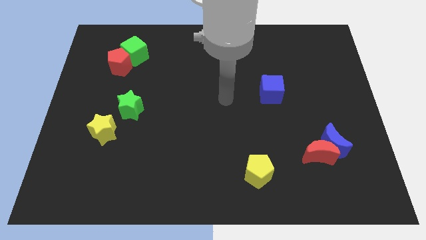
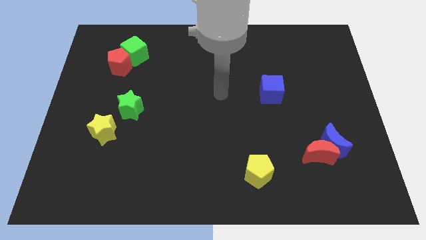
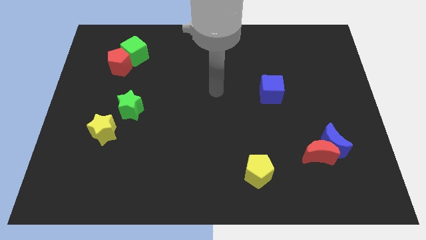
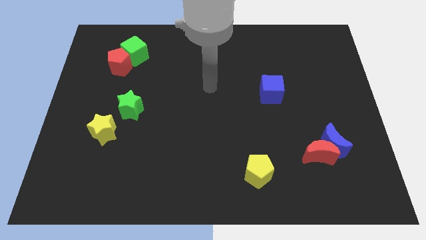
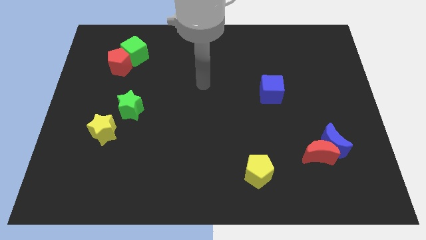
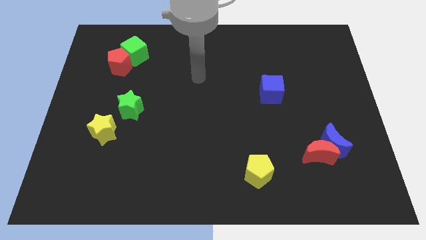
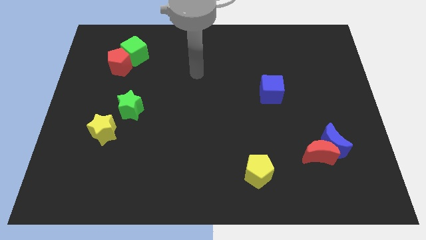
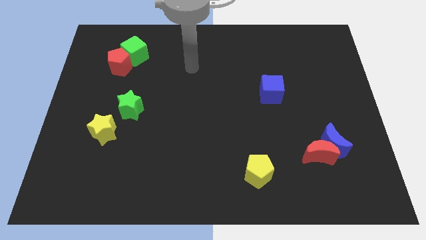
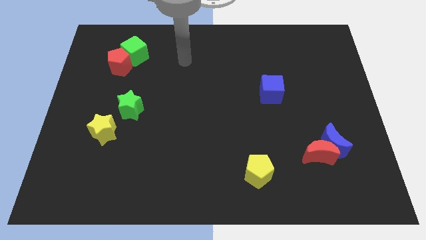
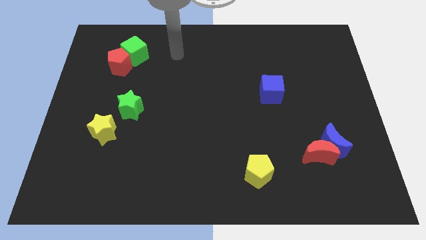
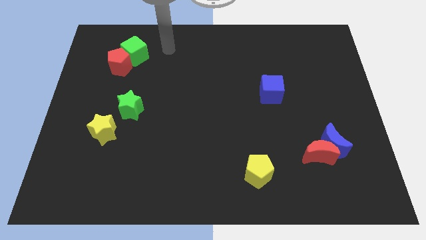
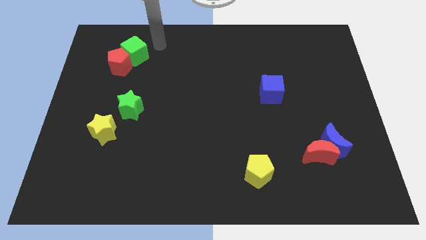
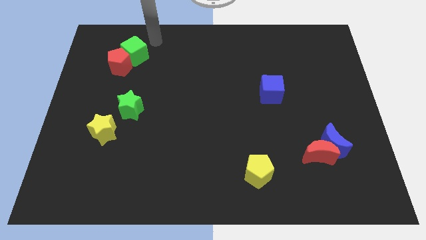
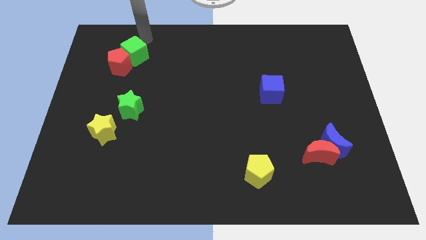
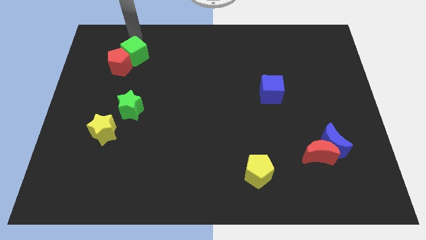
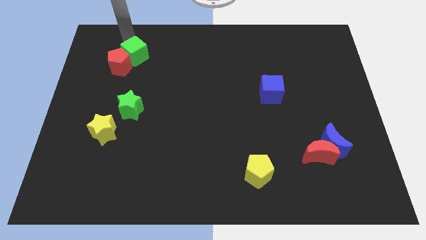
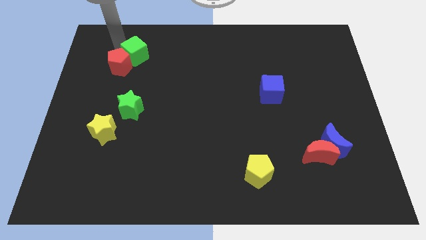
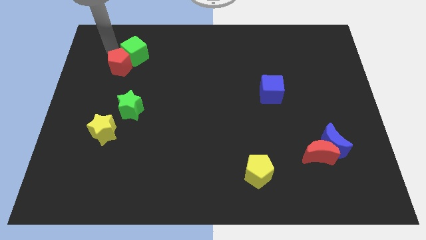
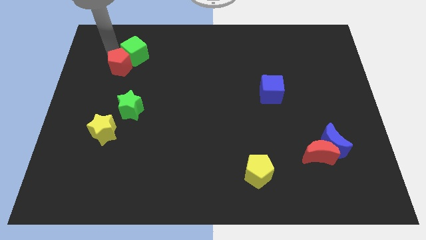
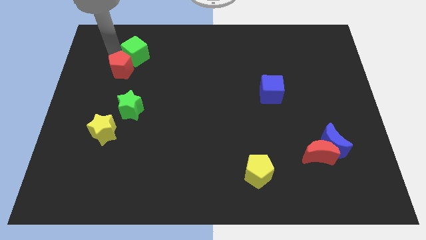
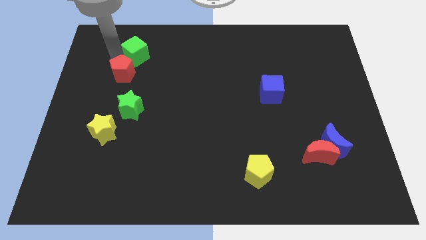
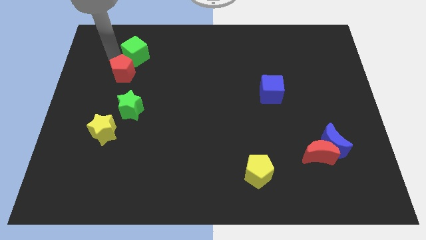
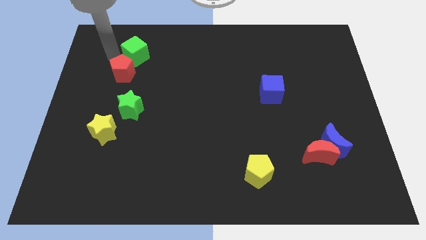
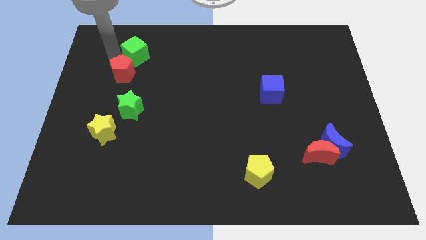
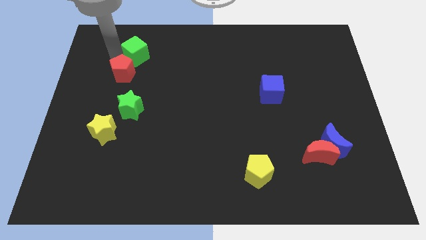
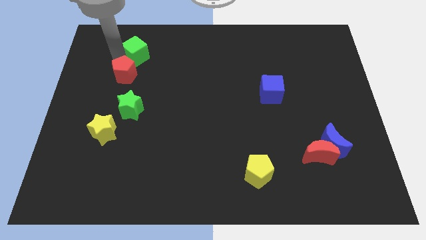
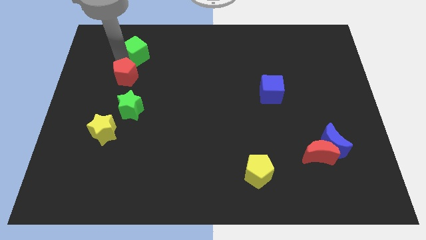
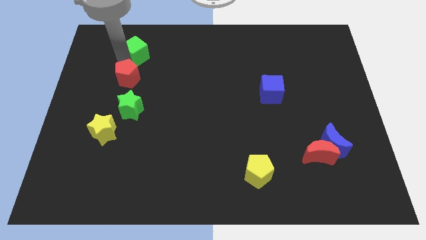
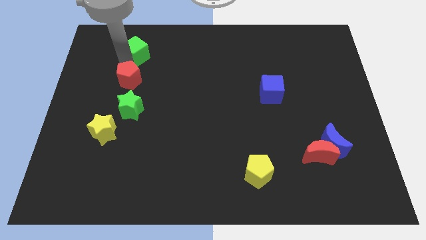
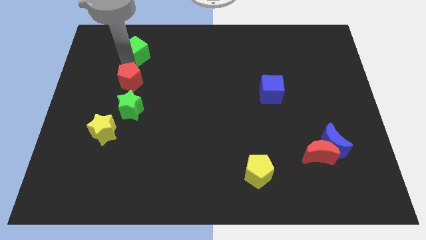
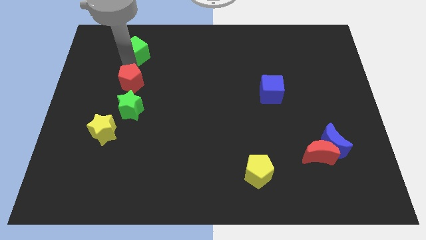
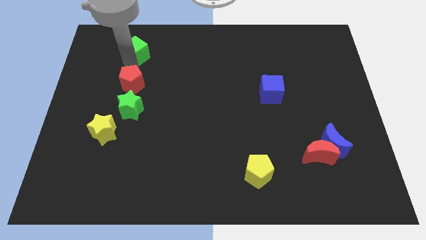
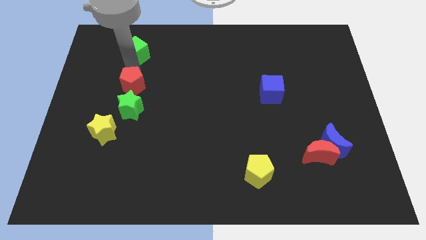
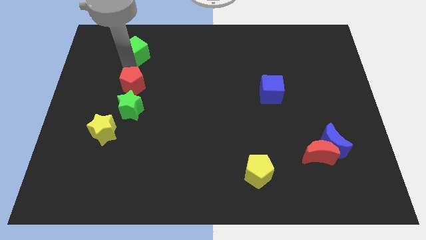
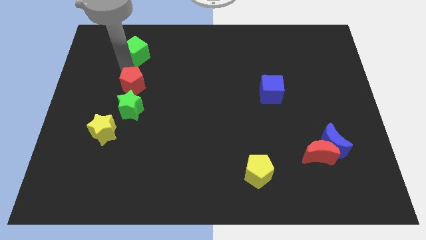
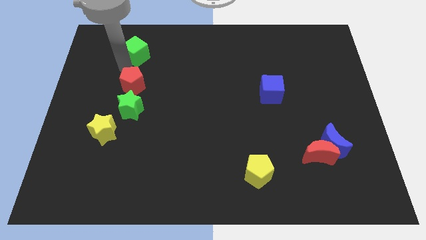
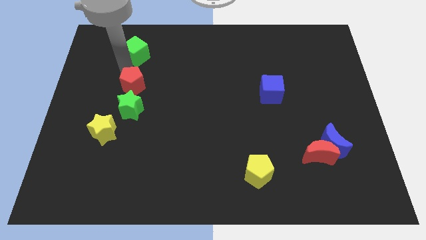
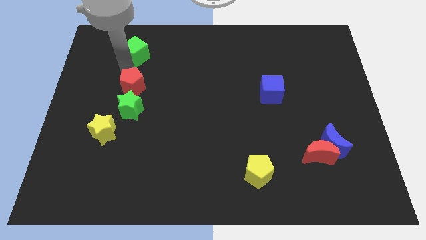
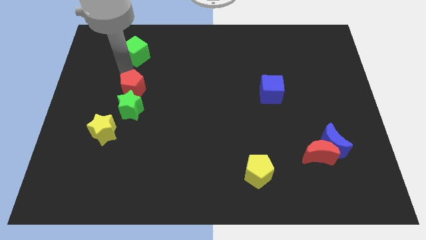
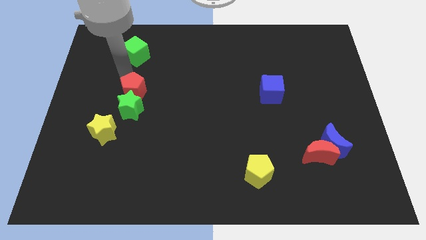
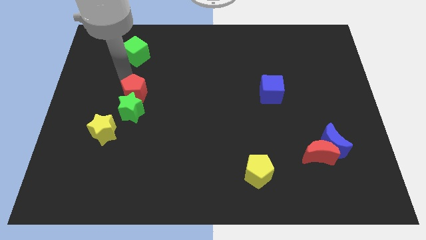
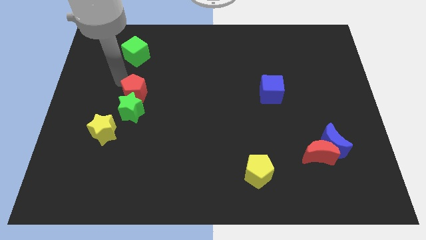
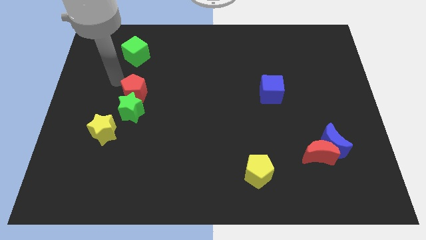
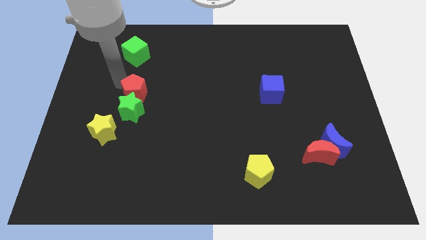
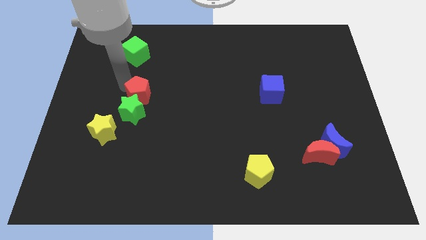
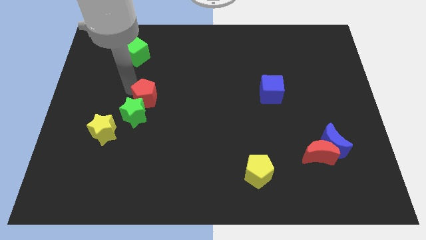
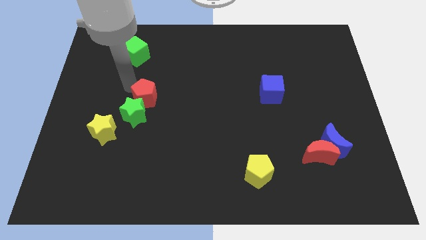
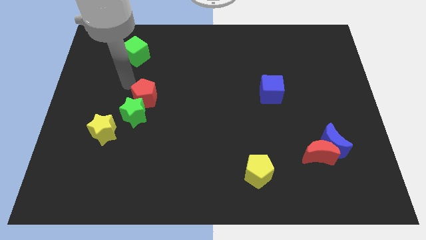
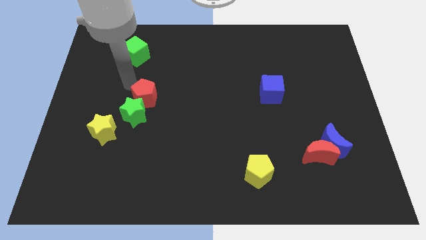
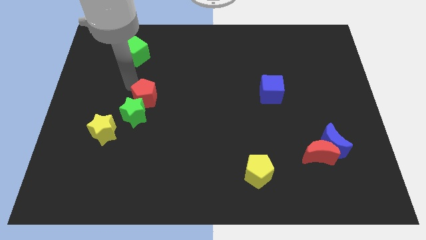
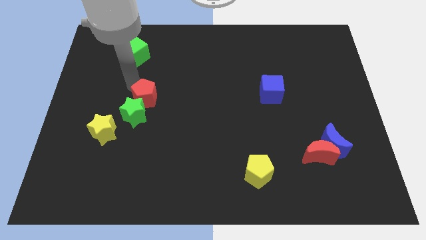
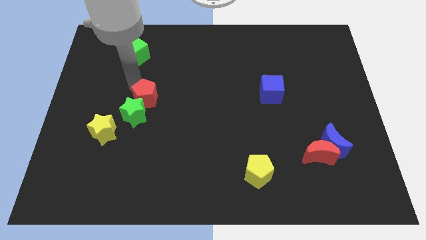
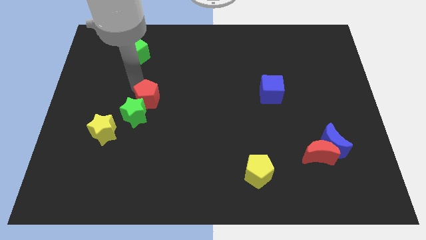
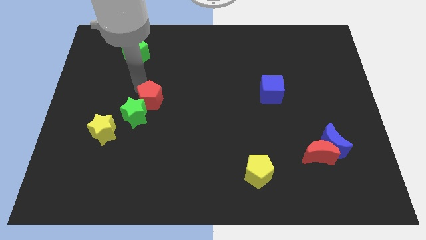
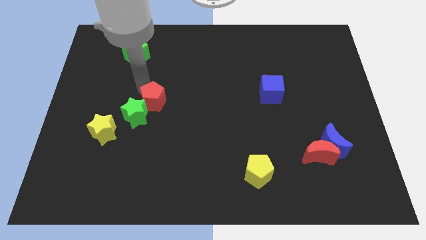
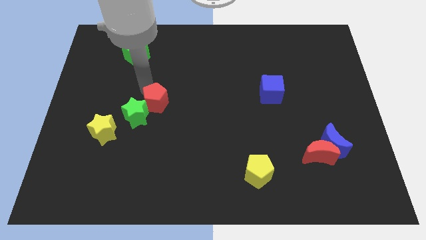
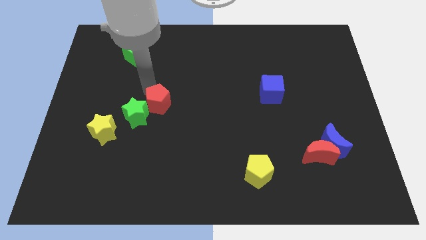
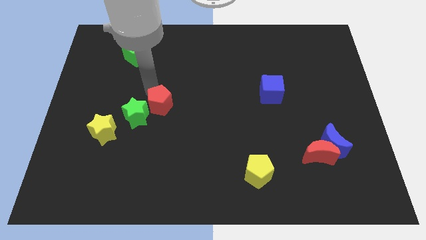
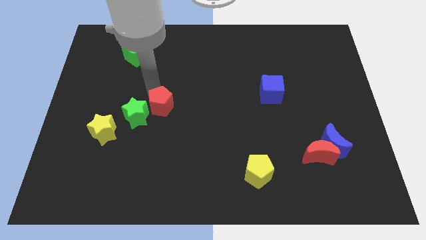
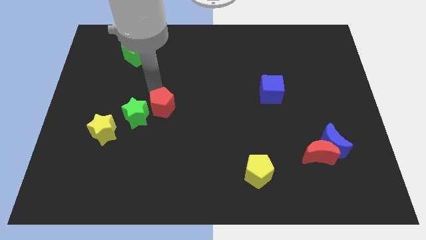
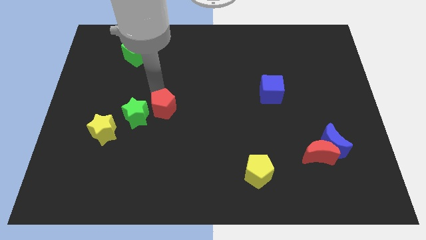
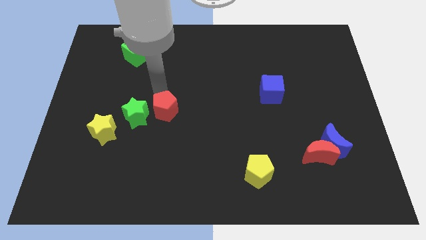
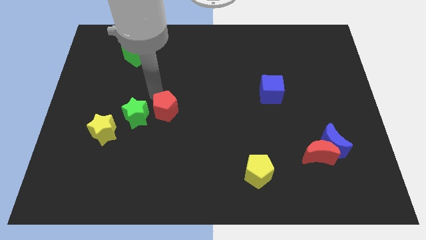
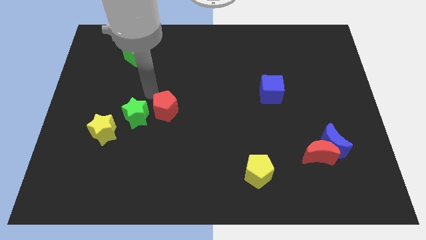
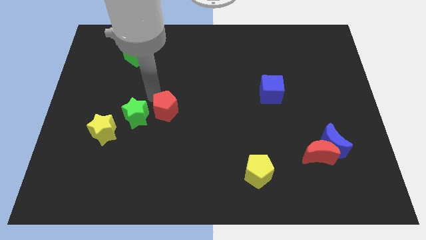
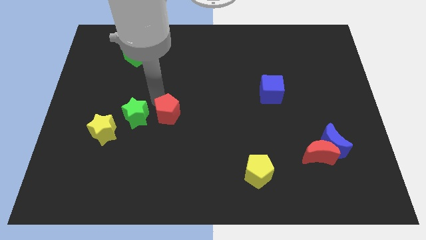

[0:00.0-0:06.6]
slide the red pentagon downwards and right

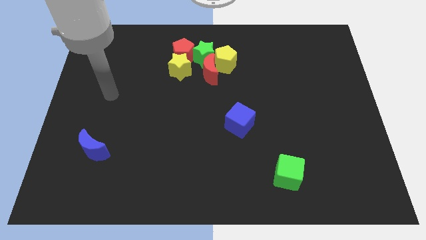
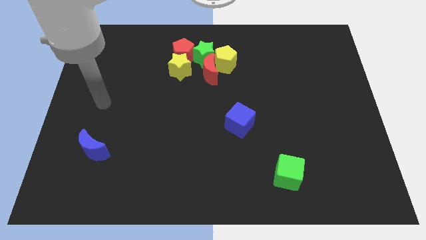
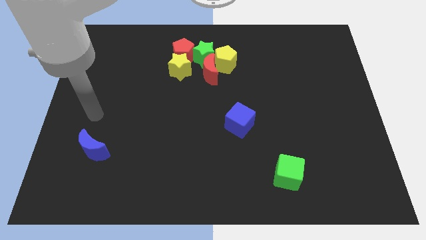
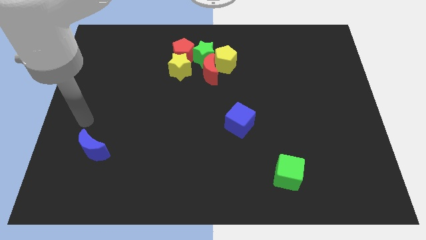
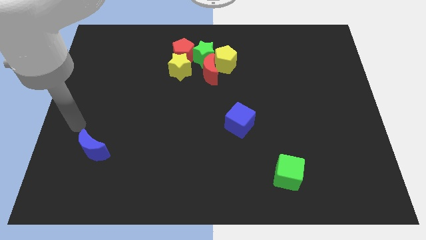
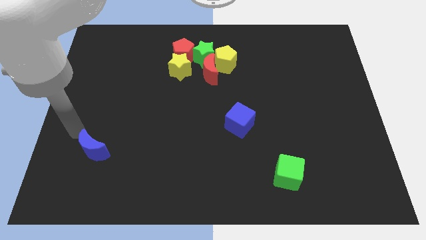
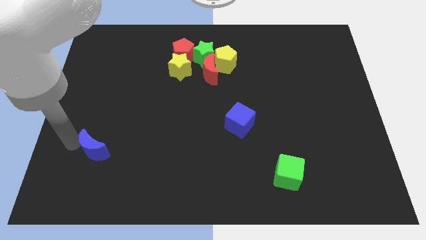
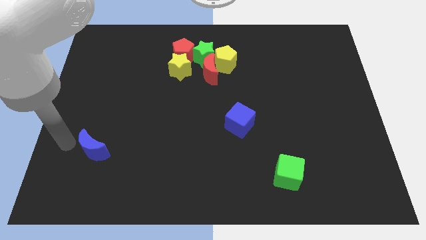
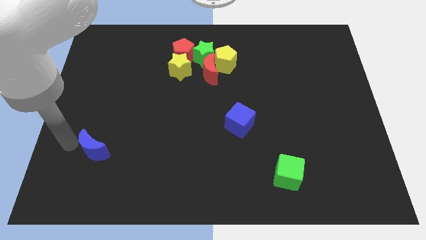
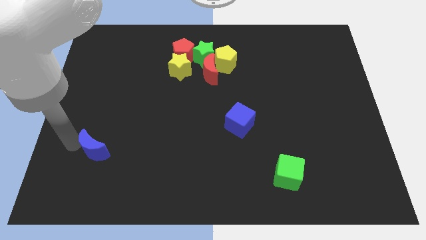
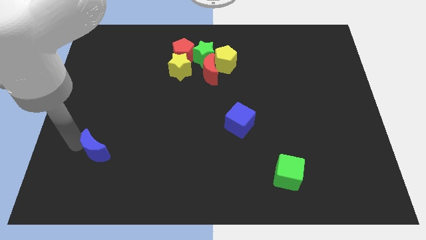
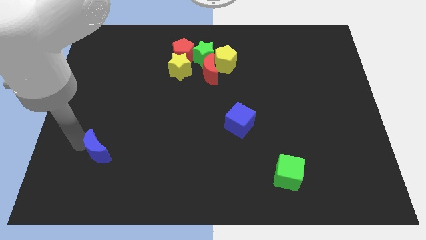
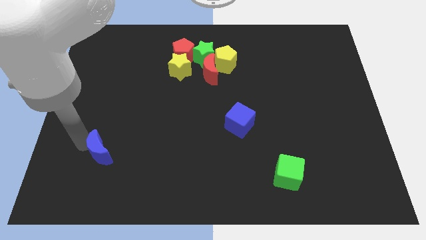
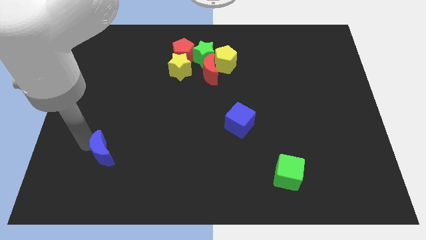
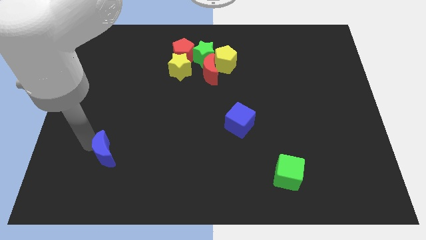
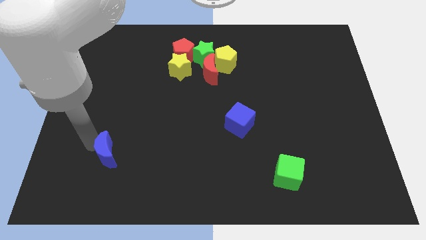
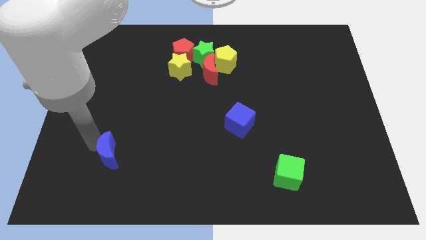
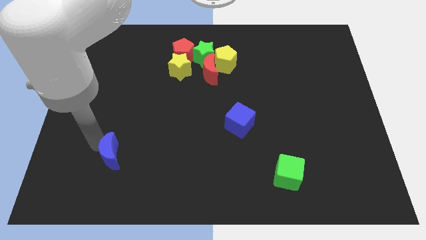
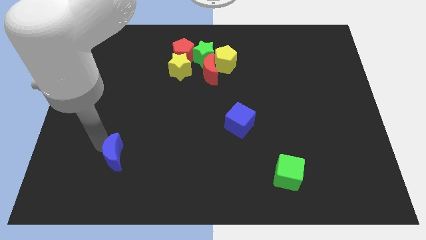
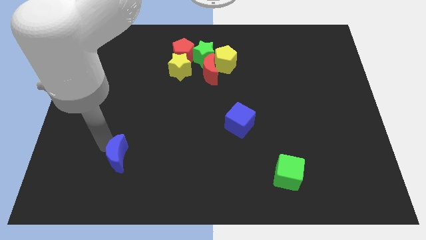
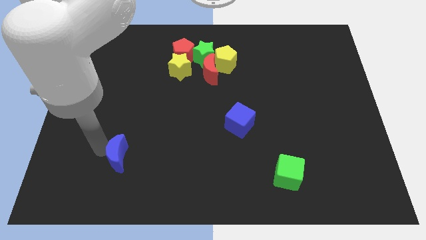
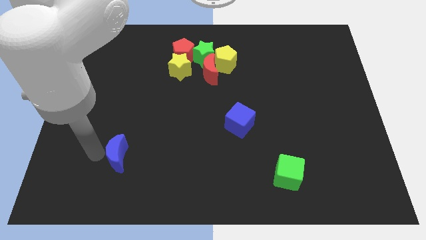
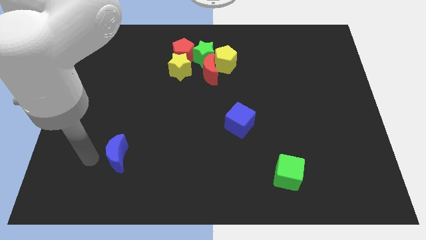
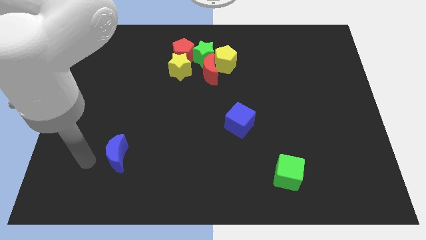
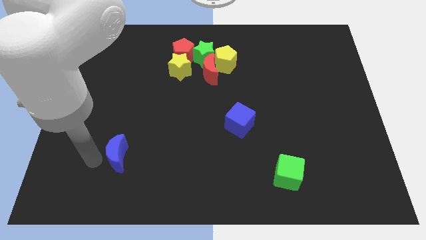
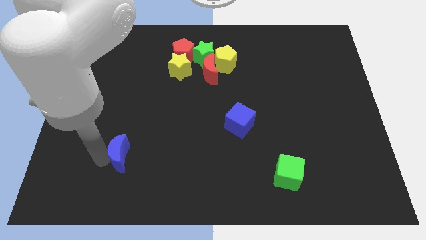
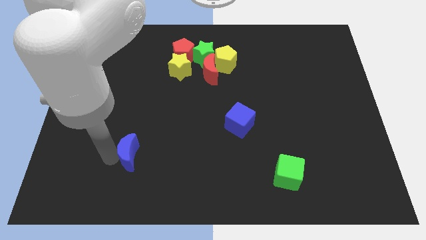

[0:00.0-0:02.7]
slide the blue moon somewhat to the right
